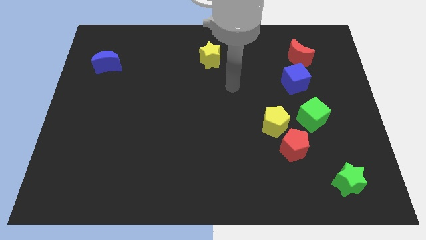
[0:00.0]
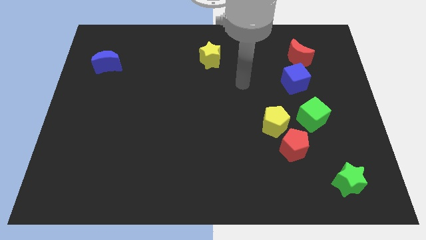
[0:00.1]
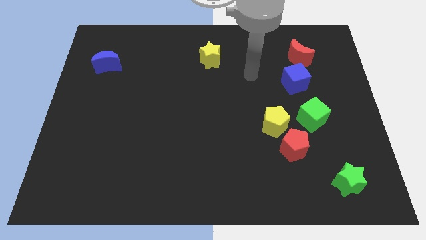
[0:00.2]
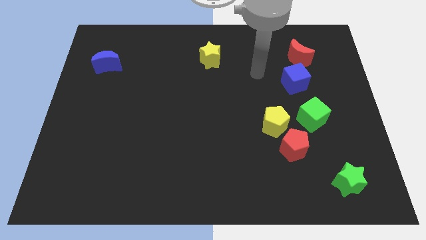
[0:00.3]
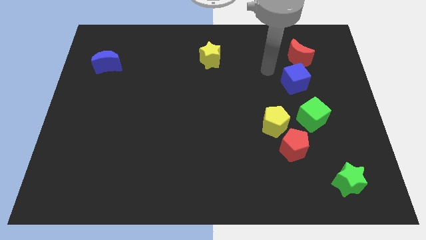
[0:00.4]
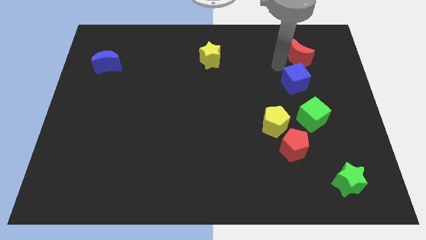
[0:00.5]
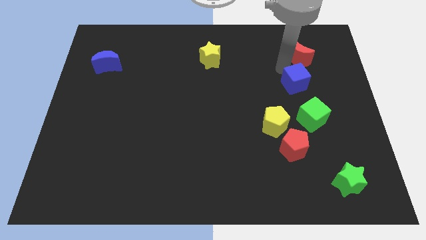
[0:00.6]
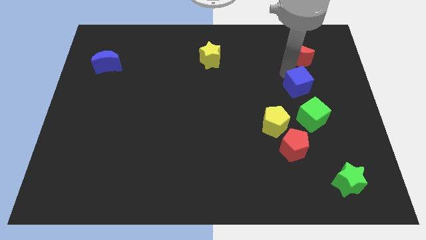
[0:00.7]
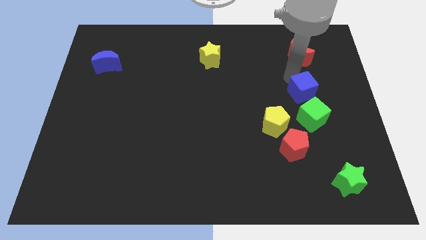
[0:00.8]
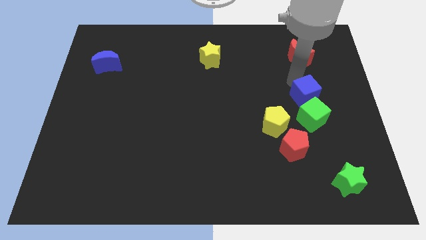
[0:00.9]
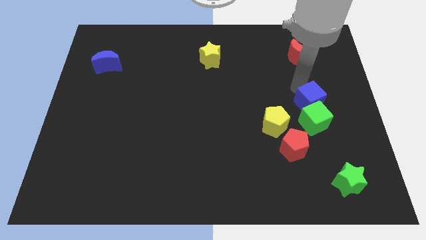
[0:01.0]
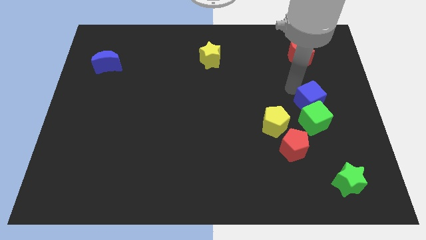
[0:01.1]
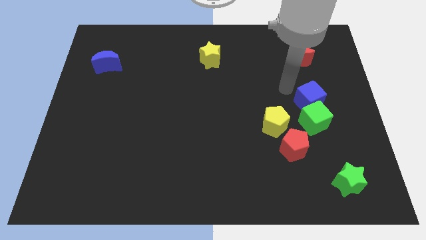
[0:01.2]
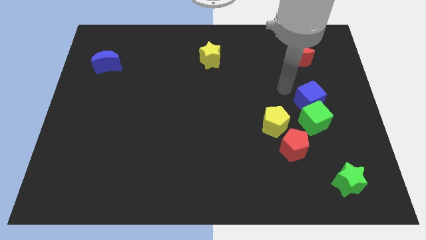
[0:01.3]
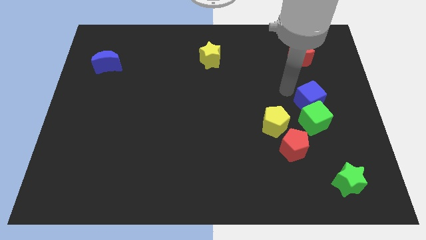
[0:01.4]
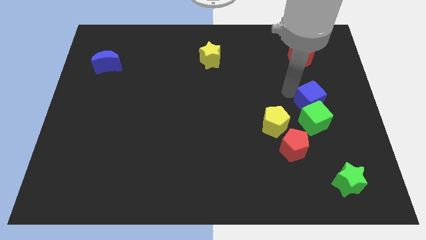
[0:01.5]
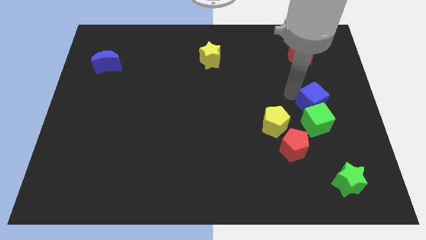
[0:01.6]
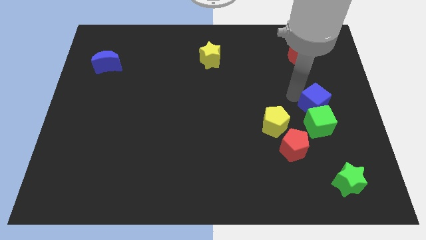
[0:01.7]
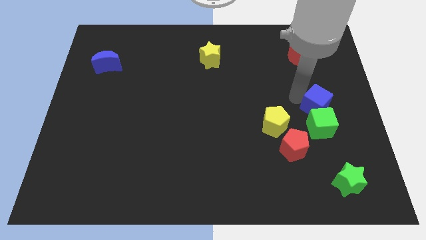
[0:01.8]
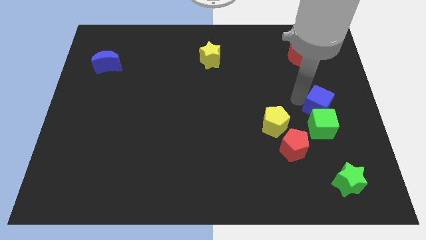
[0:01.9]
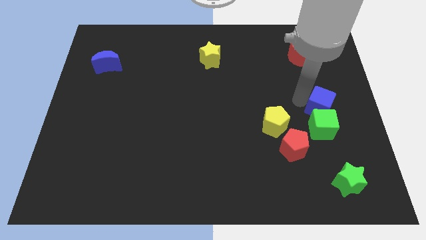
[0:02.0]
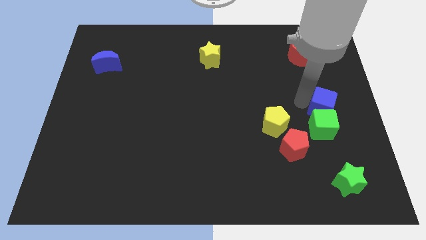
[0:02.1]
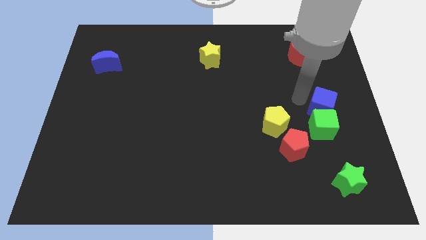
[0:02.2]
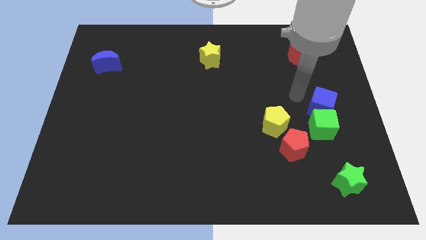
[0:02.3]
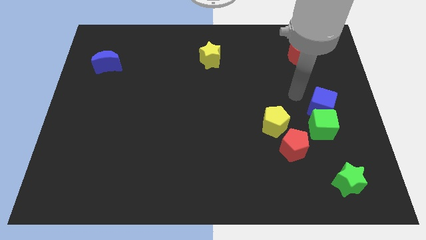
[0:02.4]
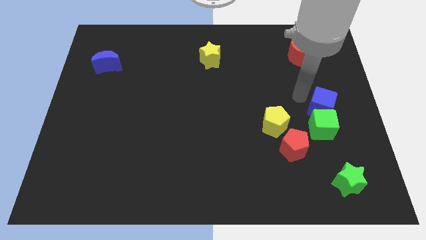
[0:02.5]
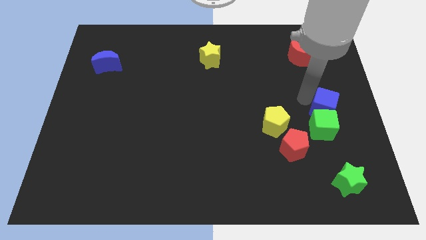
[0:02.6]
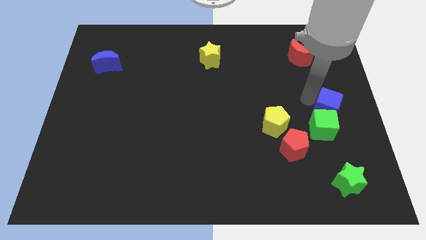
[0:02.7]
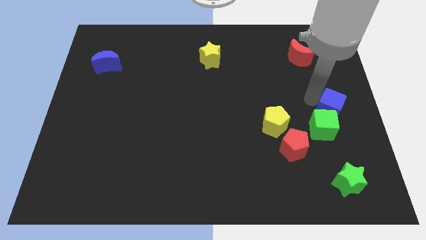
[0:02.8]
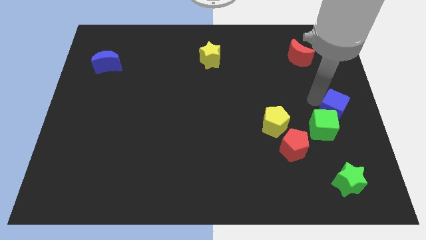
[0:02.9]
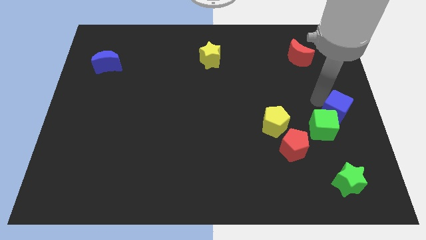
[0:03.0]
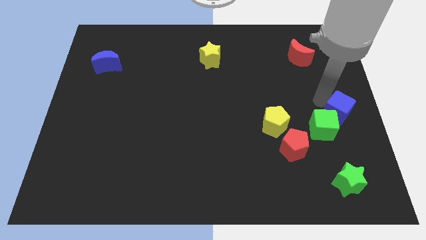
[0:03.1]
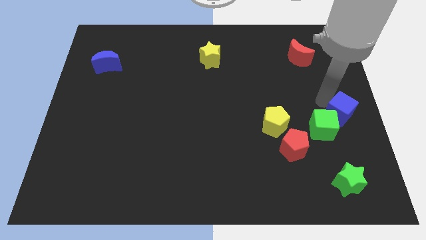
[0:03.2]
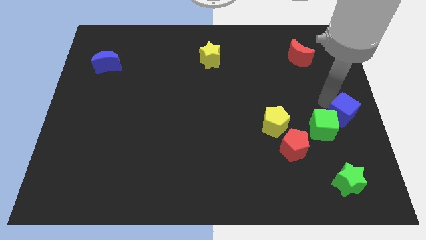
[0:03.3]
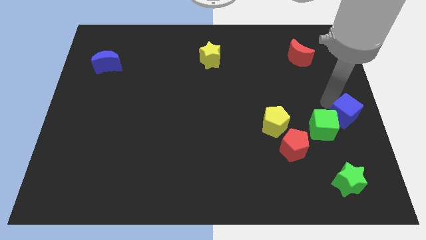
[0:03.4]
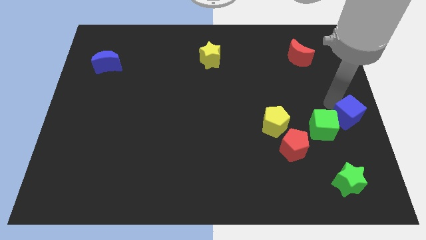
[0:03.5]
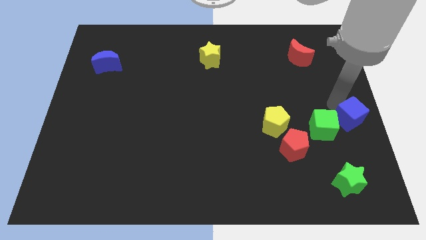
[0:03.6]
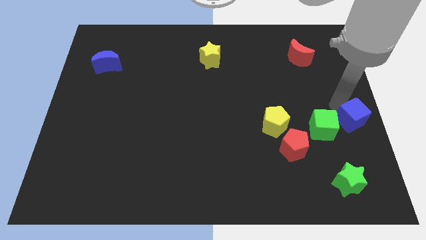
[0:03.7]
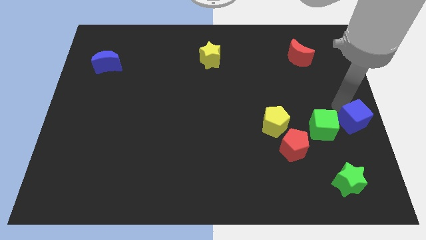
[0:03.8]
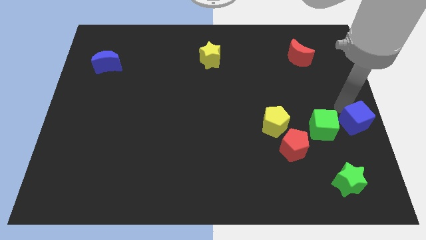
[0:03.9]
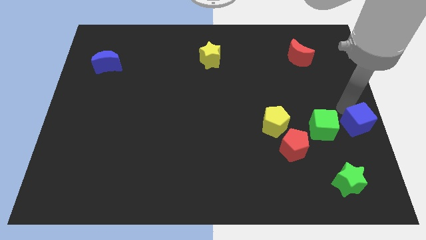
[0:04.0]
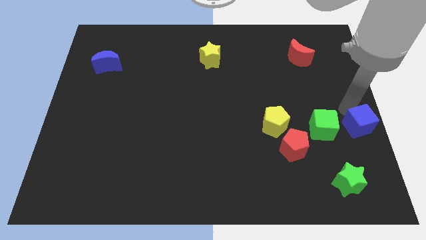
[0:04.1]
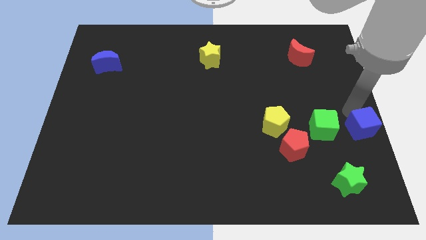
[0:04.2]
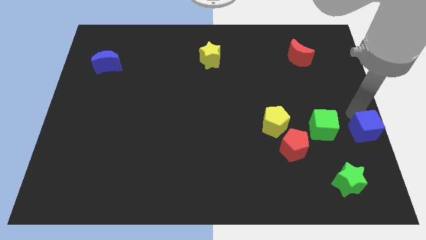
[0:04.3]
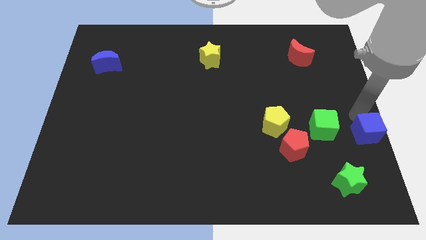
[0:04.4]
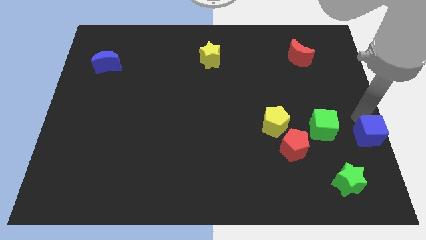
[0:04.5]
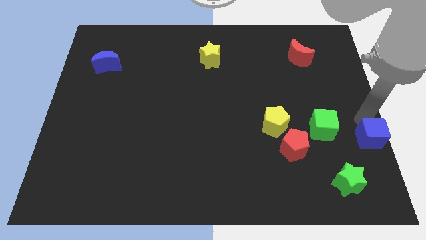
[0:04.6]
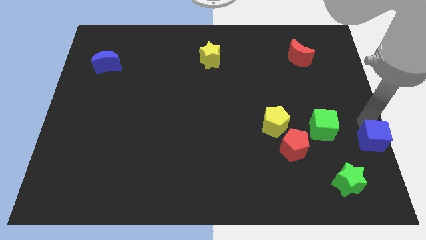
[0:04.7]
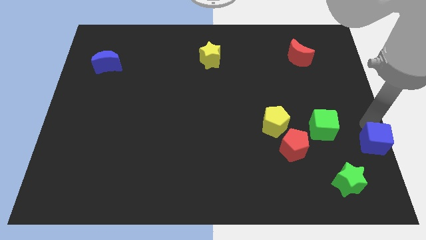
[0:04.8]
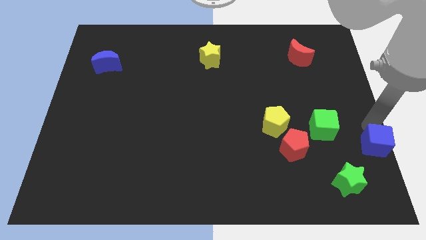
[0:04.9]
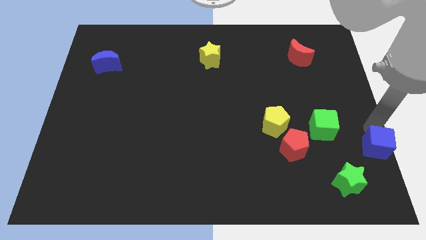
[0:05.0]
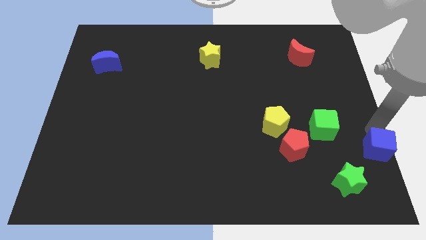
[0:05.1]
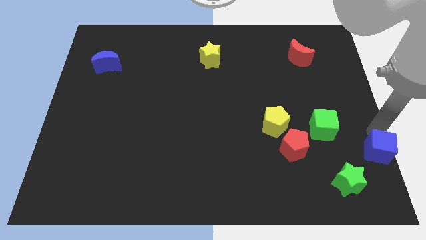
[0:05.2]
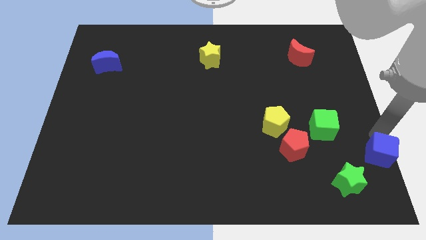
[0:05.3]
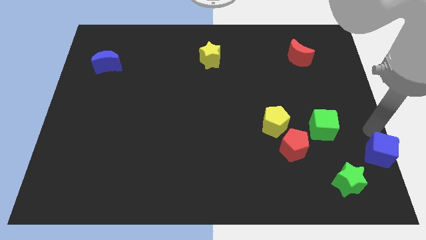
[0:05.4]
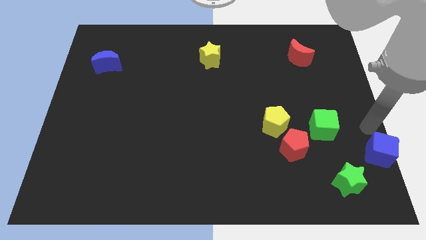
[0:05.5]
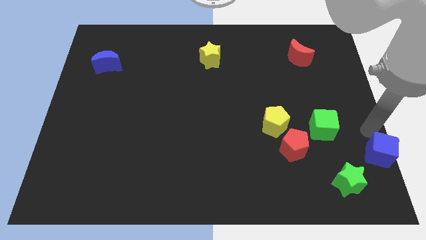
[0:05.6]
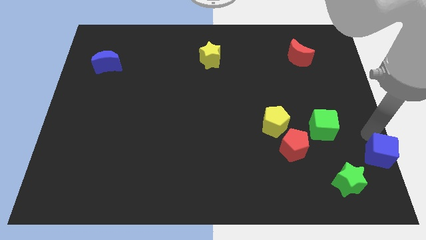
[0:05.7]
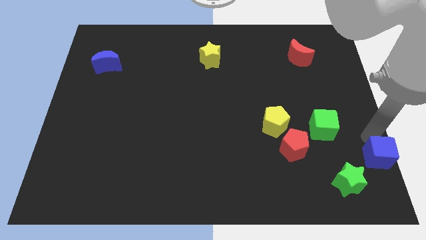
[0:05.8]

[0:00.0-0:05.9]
push the blue cube to the bottom right corner

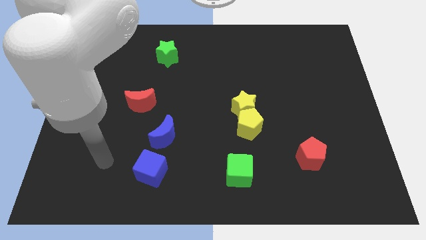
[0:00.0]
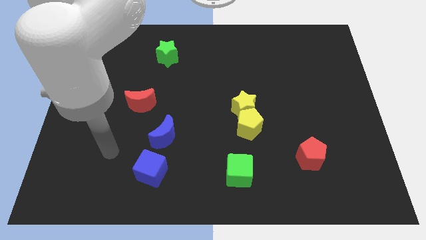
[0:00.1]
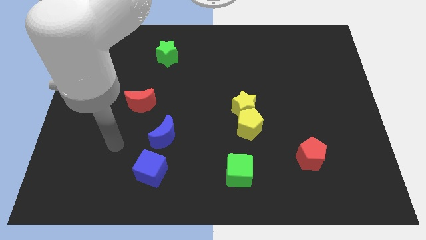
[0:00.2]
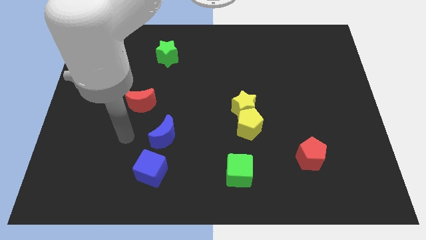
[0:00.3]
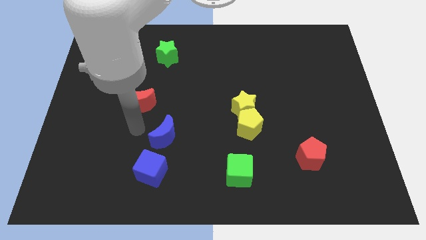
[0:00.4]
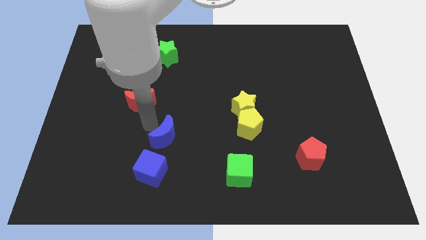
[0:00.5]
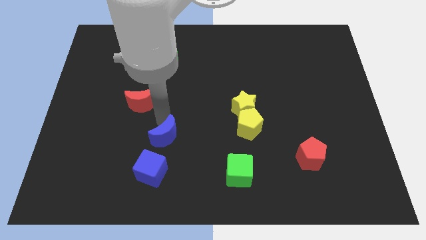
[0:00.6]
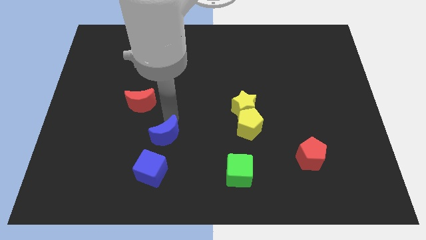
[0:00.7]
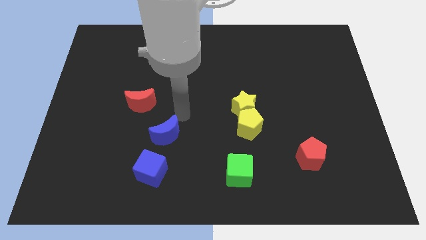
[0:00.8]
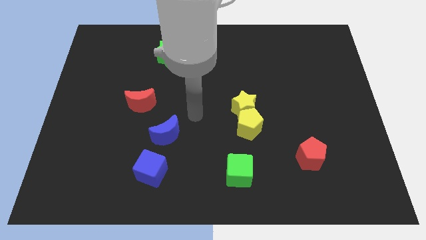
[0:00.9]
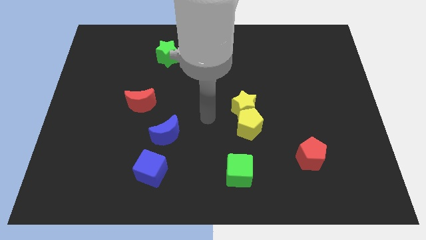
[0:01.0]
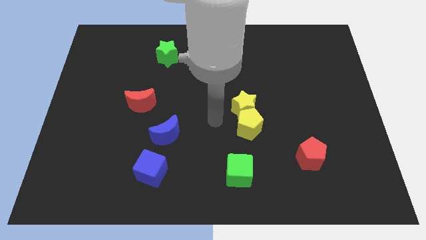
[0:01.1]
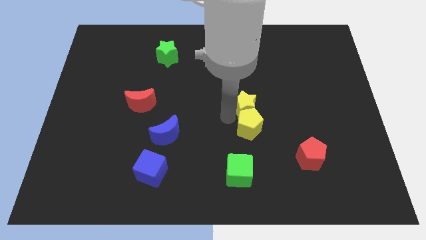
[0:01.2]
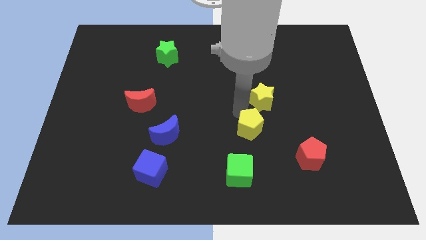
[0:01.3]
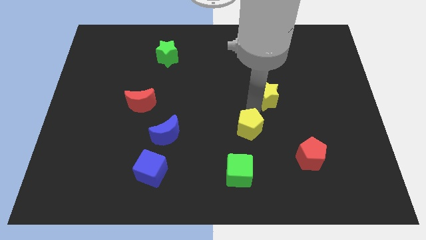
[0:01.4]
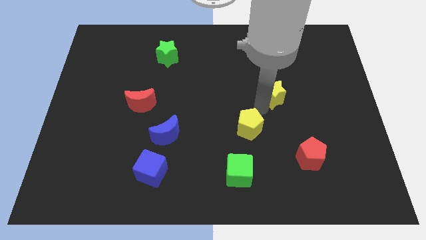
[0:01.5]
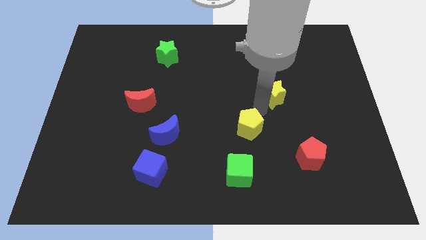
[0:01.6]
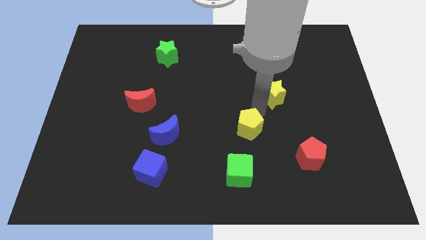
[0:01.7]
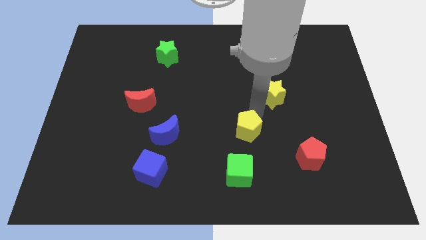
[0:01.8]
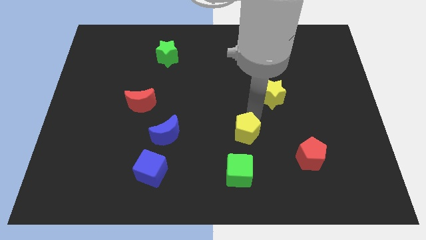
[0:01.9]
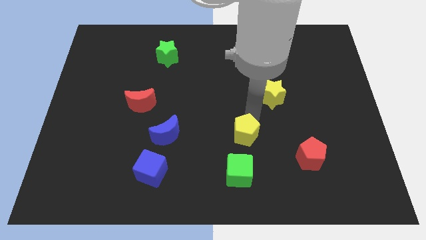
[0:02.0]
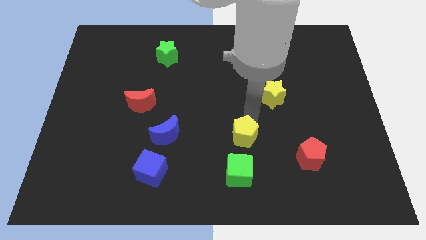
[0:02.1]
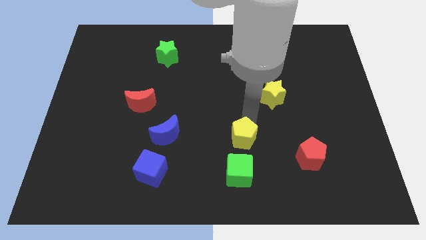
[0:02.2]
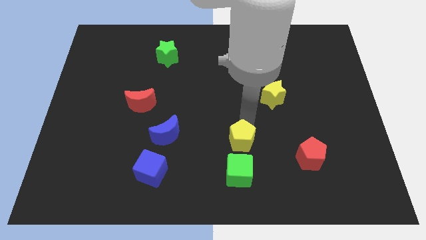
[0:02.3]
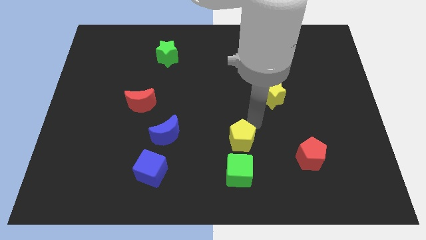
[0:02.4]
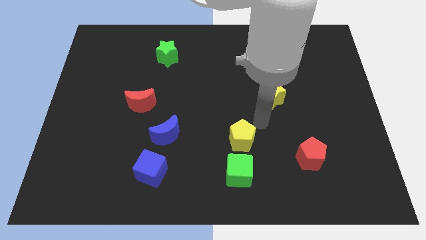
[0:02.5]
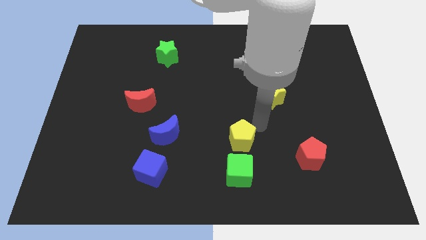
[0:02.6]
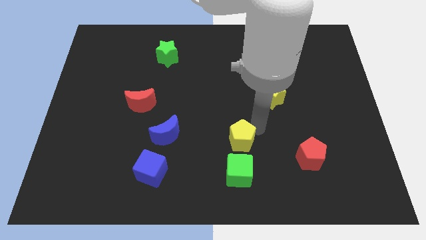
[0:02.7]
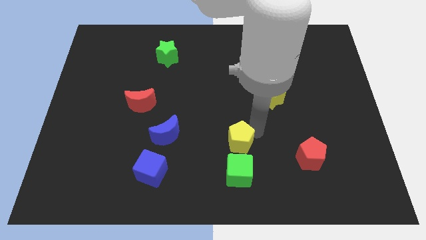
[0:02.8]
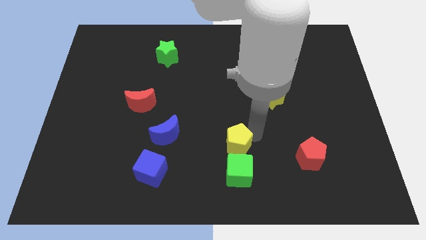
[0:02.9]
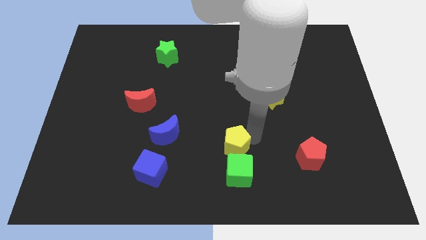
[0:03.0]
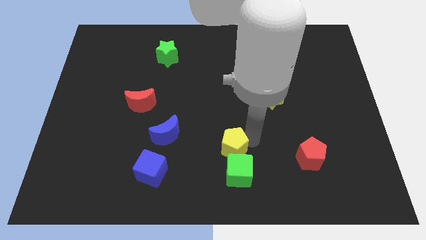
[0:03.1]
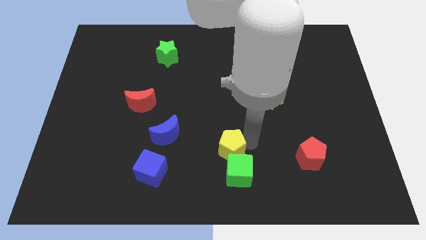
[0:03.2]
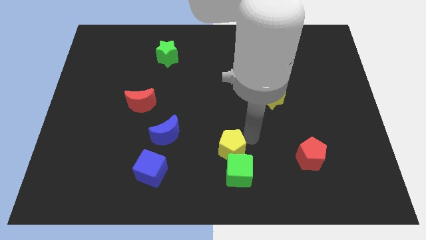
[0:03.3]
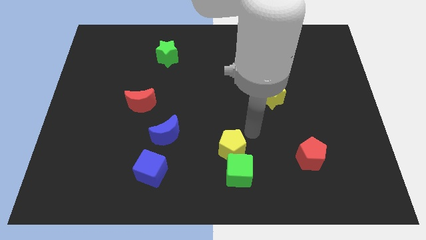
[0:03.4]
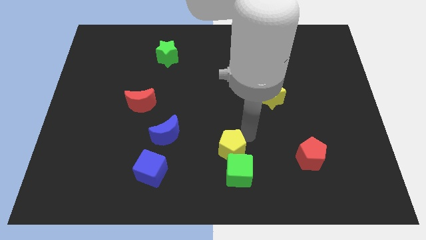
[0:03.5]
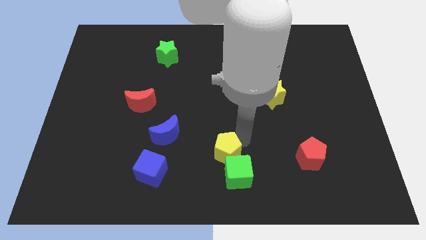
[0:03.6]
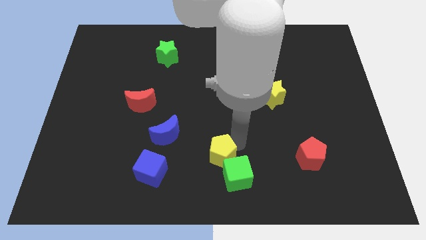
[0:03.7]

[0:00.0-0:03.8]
push the yellow pentagon to the bottom
